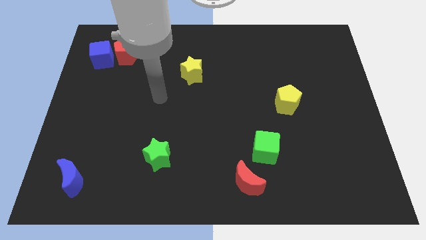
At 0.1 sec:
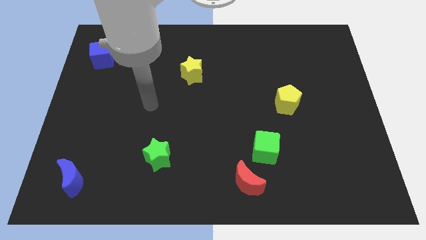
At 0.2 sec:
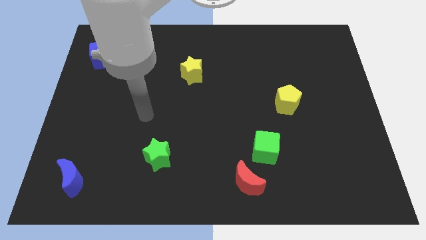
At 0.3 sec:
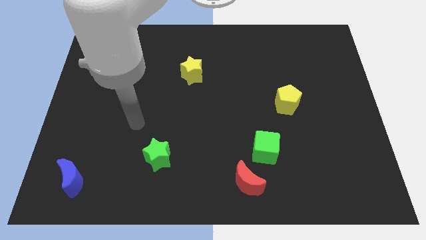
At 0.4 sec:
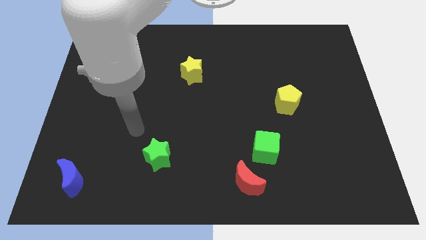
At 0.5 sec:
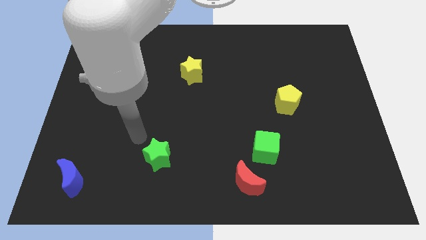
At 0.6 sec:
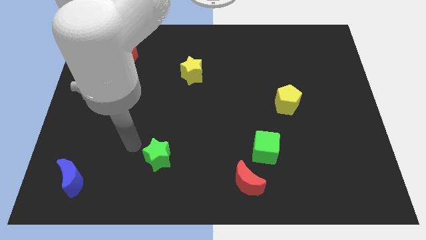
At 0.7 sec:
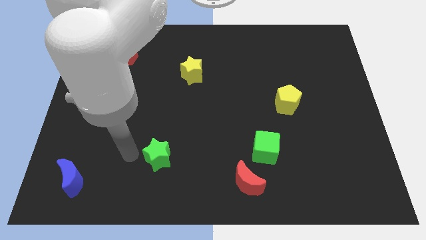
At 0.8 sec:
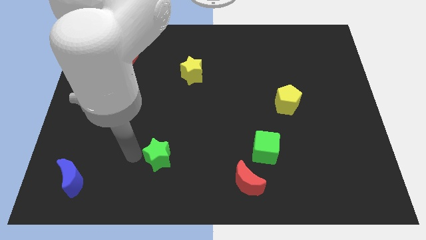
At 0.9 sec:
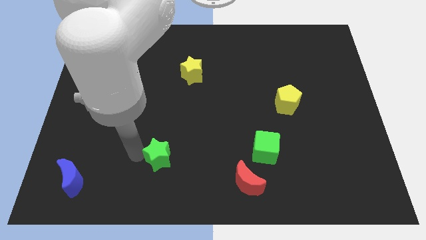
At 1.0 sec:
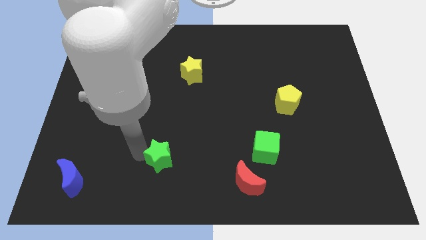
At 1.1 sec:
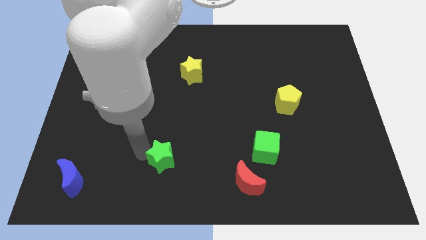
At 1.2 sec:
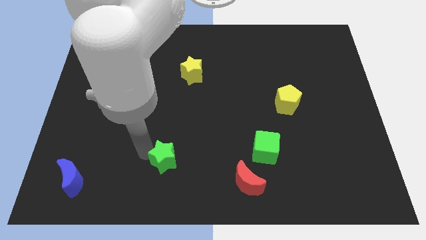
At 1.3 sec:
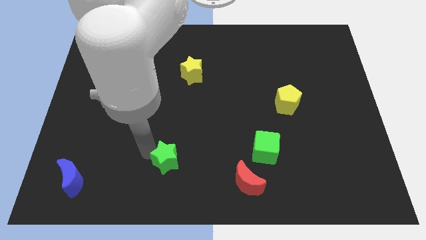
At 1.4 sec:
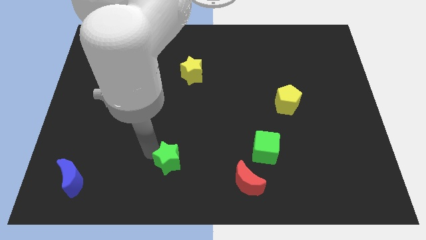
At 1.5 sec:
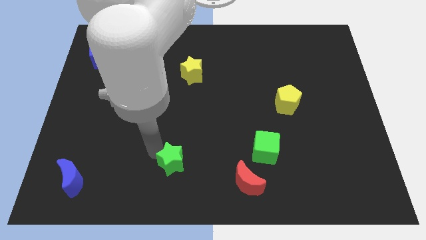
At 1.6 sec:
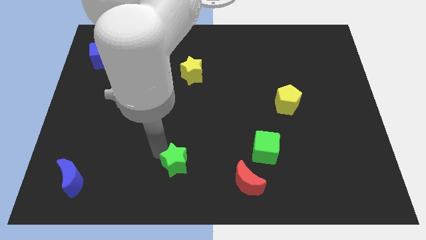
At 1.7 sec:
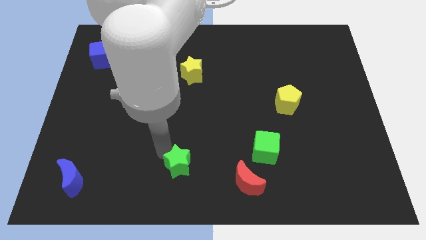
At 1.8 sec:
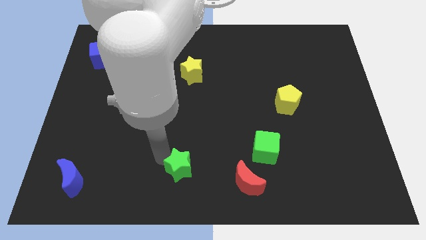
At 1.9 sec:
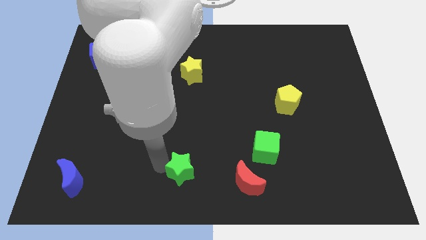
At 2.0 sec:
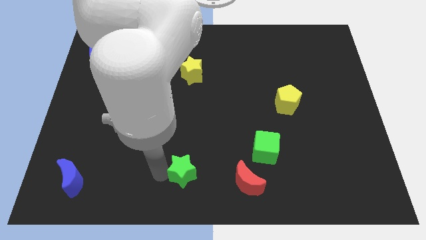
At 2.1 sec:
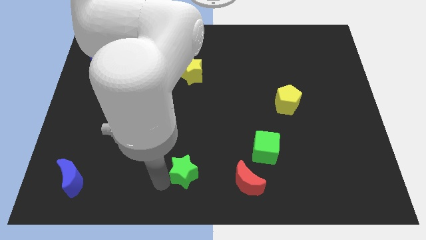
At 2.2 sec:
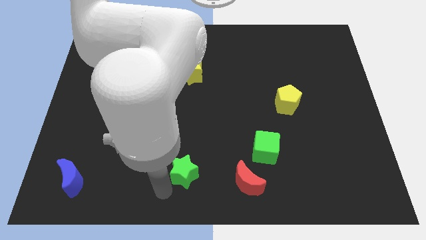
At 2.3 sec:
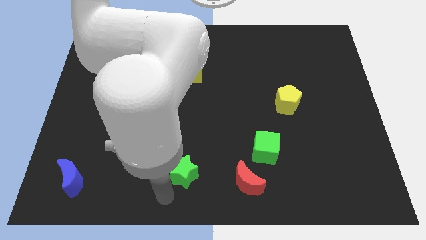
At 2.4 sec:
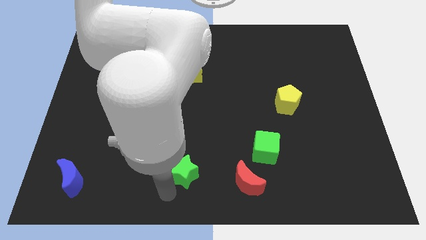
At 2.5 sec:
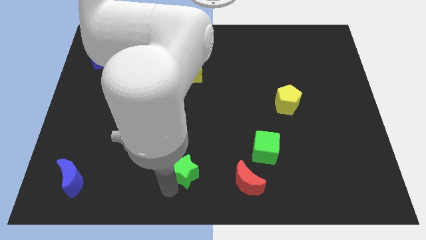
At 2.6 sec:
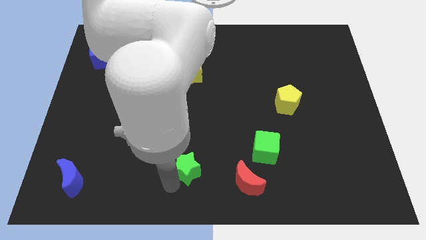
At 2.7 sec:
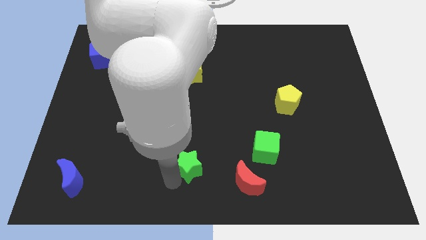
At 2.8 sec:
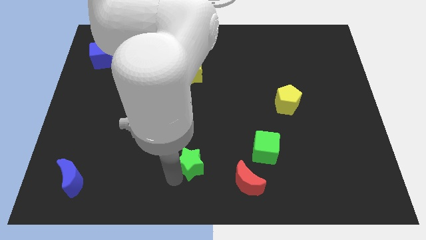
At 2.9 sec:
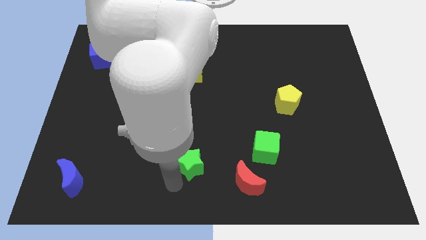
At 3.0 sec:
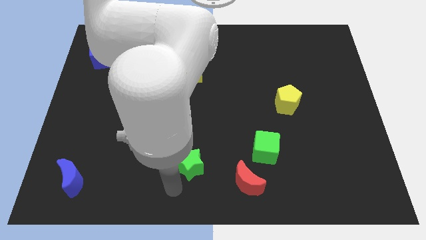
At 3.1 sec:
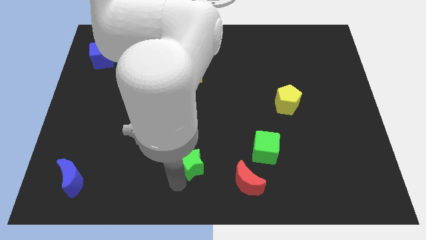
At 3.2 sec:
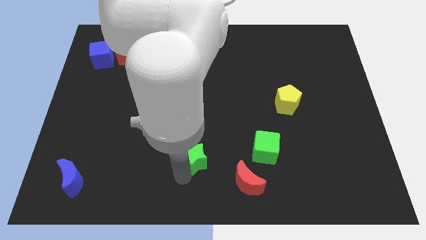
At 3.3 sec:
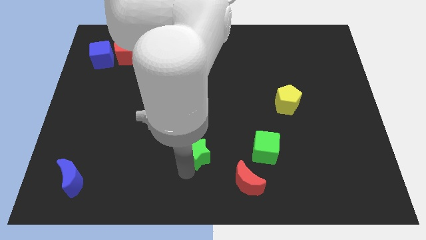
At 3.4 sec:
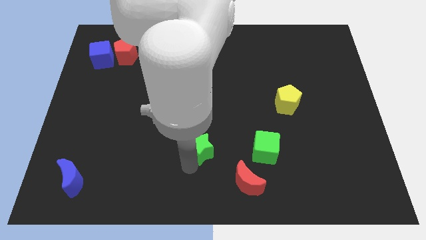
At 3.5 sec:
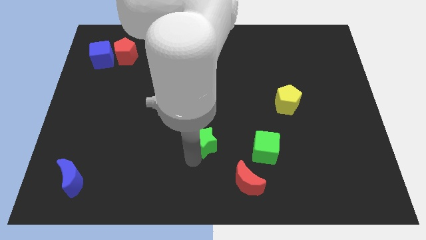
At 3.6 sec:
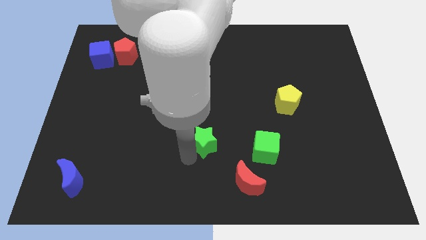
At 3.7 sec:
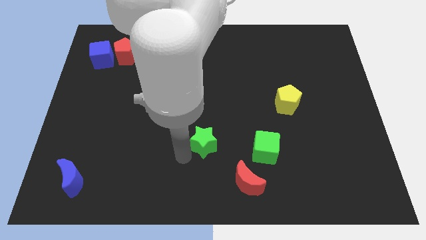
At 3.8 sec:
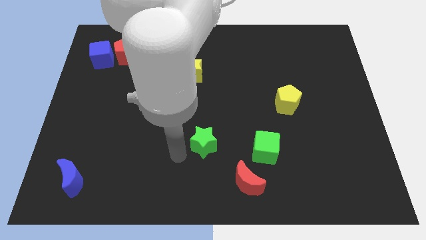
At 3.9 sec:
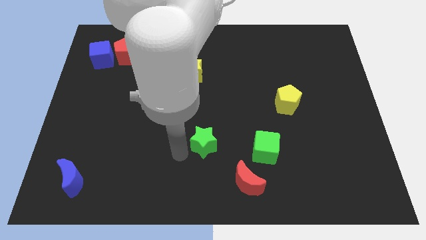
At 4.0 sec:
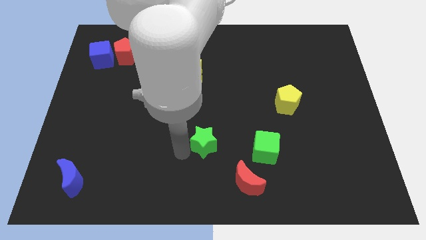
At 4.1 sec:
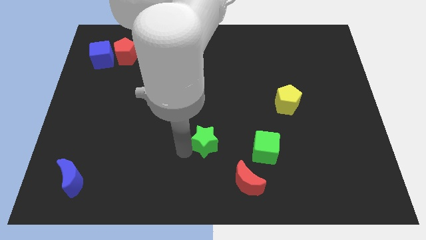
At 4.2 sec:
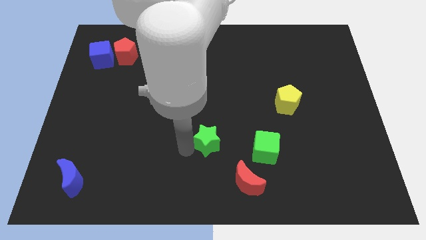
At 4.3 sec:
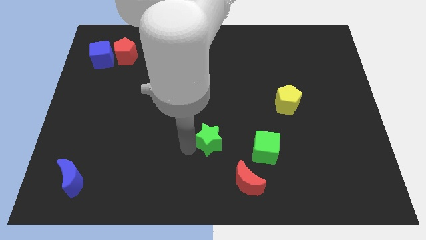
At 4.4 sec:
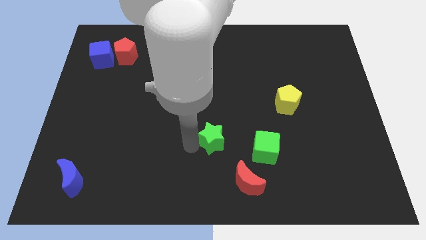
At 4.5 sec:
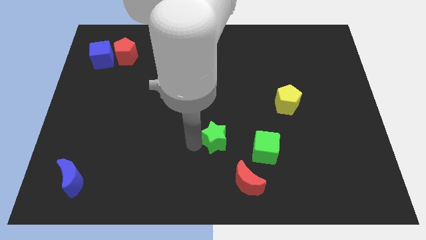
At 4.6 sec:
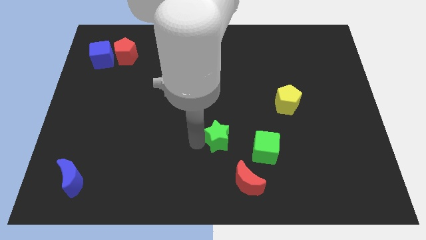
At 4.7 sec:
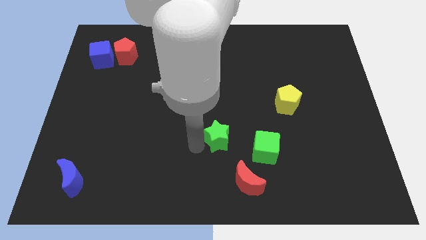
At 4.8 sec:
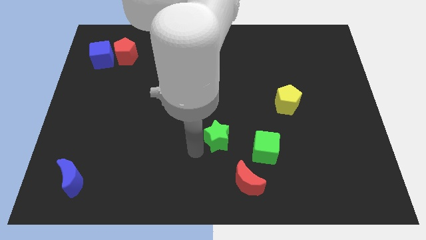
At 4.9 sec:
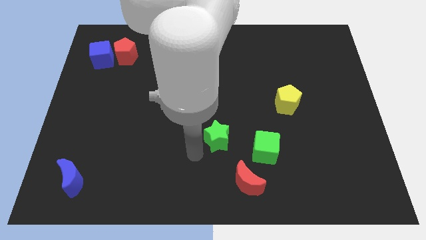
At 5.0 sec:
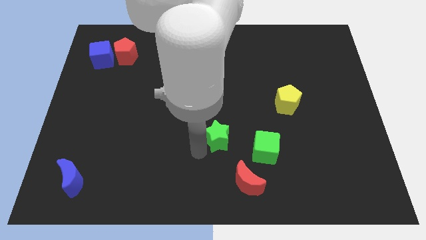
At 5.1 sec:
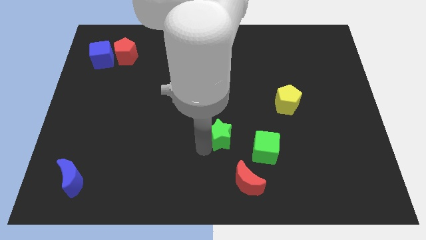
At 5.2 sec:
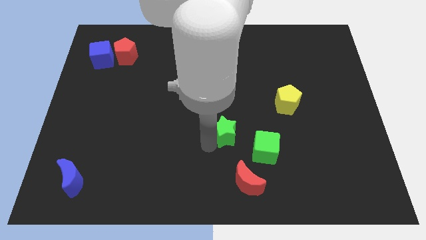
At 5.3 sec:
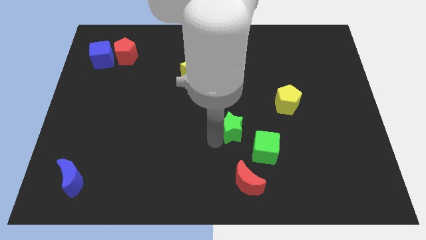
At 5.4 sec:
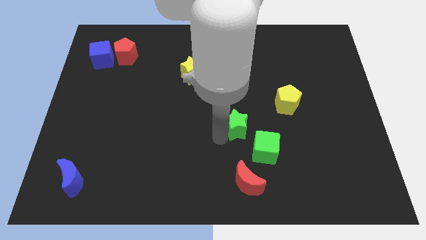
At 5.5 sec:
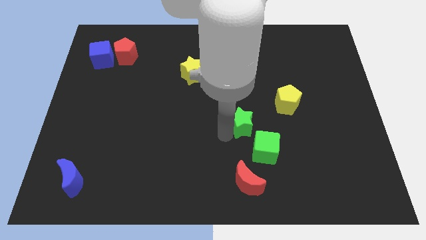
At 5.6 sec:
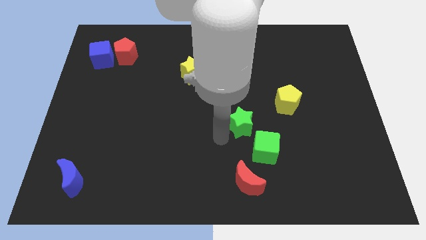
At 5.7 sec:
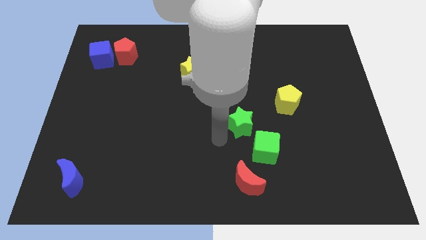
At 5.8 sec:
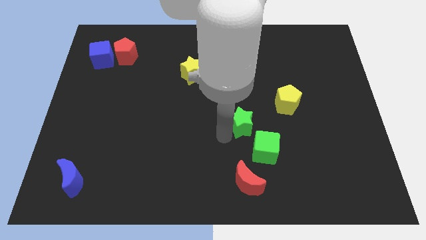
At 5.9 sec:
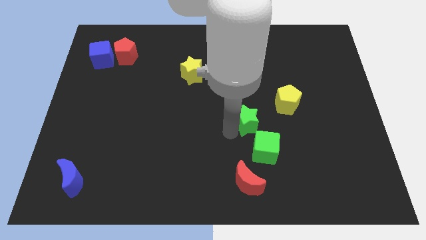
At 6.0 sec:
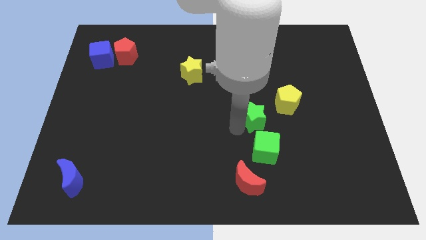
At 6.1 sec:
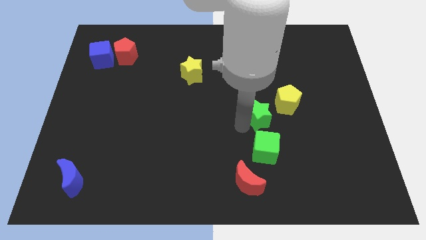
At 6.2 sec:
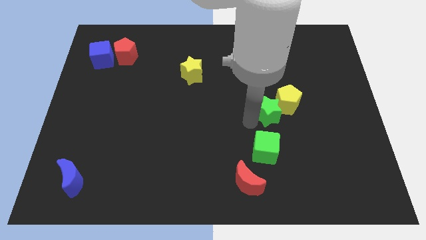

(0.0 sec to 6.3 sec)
push the green star close to the yellow pentagon

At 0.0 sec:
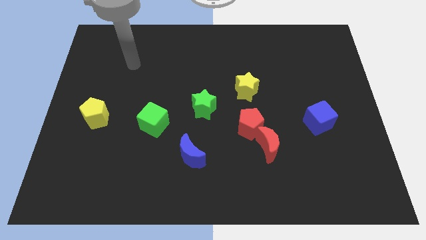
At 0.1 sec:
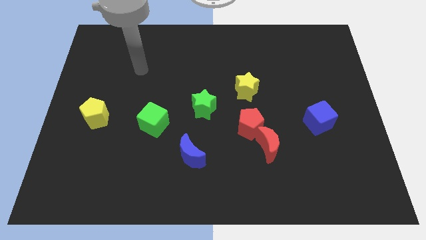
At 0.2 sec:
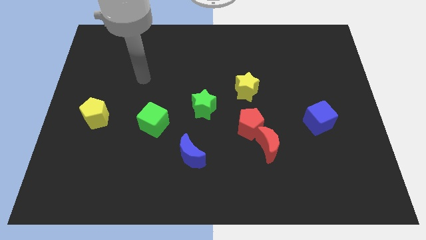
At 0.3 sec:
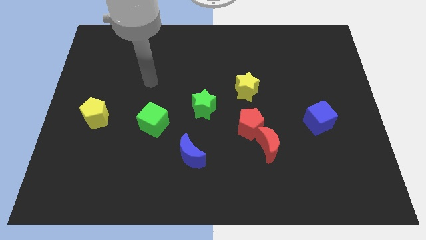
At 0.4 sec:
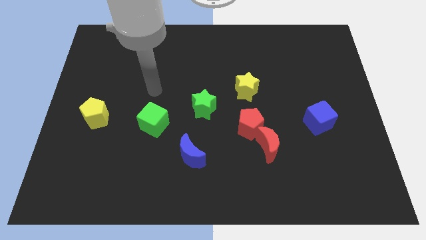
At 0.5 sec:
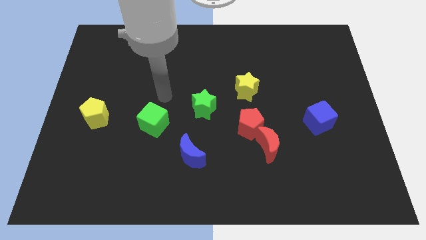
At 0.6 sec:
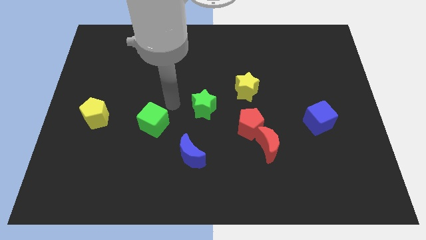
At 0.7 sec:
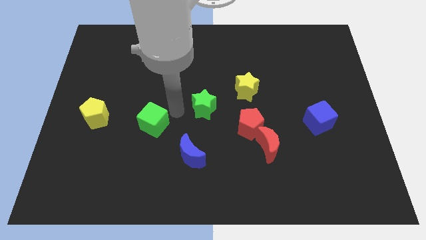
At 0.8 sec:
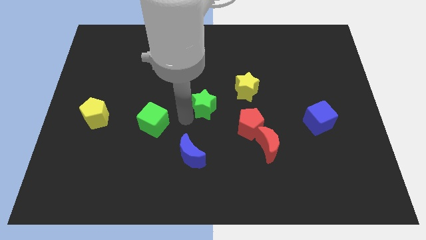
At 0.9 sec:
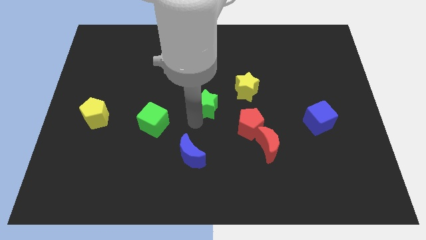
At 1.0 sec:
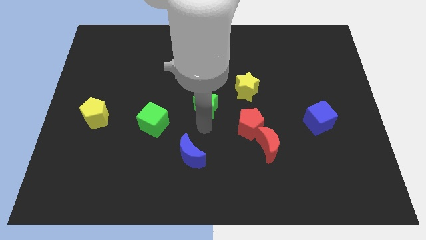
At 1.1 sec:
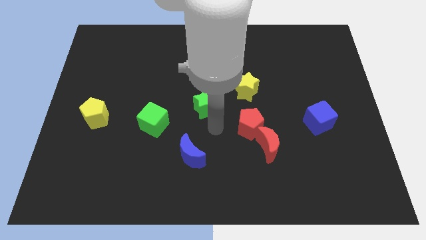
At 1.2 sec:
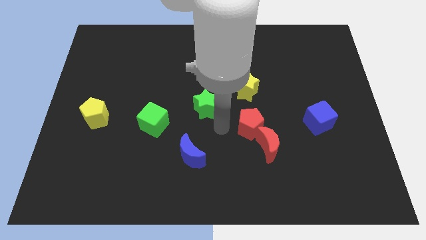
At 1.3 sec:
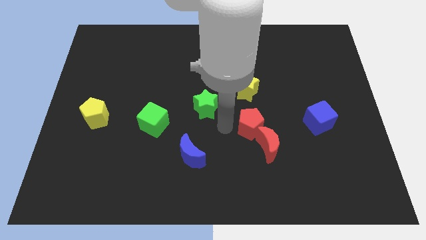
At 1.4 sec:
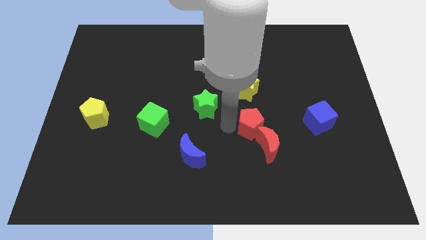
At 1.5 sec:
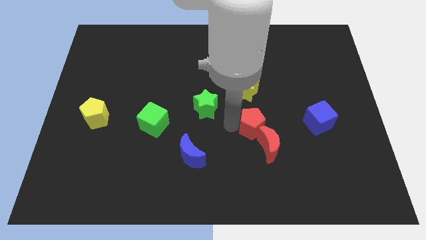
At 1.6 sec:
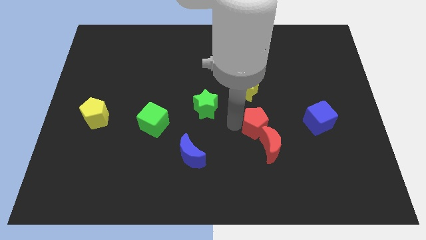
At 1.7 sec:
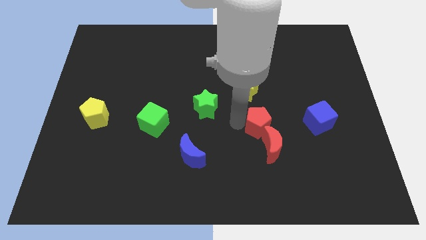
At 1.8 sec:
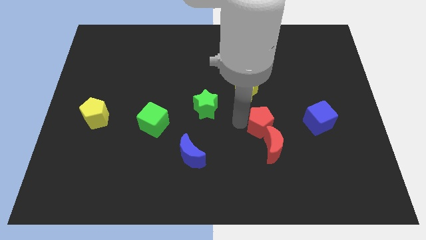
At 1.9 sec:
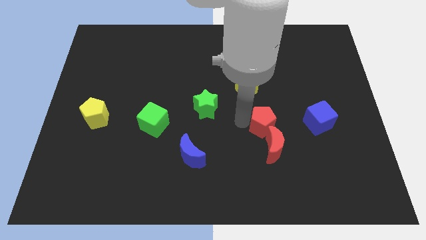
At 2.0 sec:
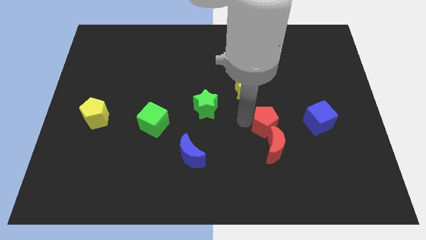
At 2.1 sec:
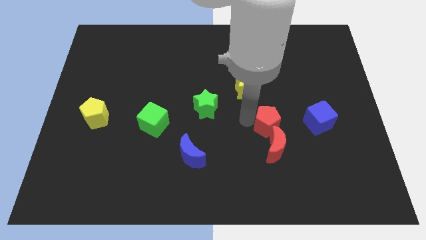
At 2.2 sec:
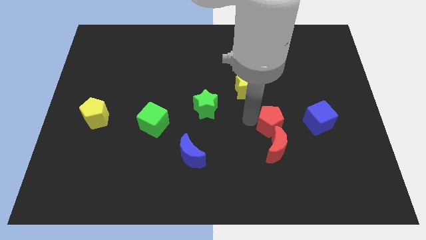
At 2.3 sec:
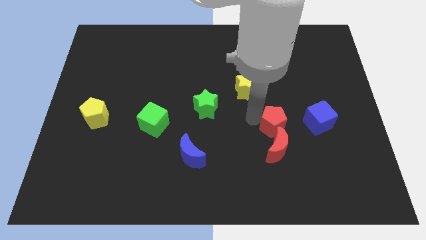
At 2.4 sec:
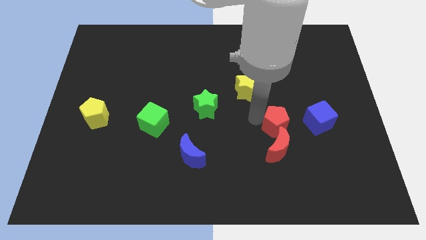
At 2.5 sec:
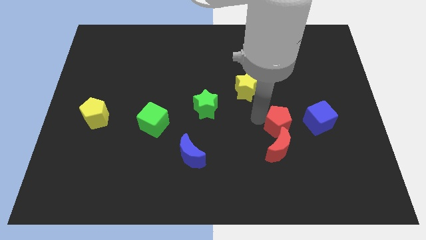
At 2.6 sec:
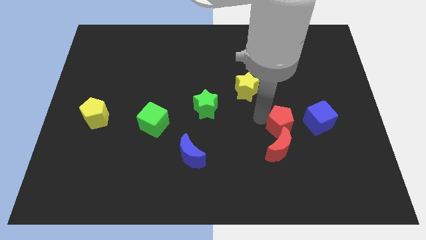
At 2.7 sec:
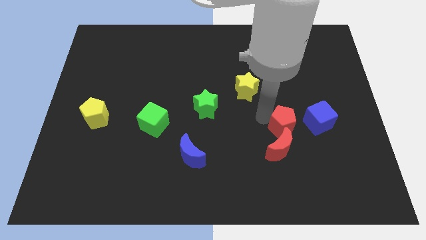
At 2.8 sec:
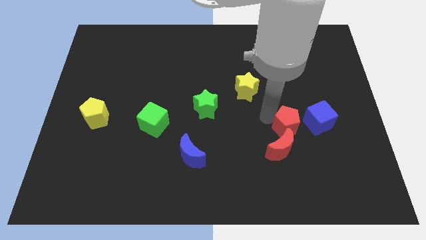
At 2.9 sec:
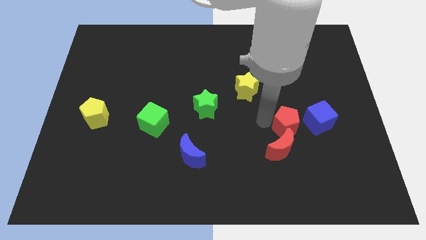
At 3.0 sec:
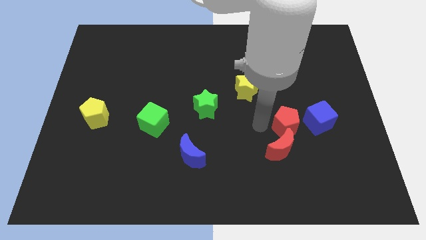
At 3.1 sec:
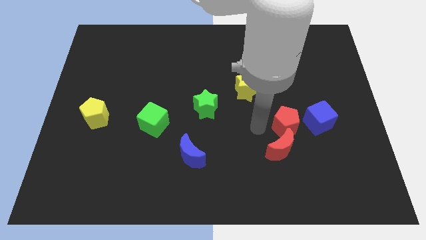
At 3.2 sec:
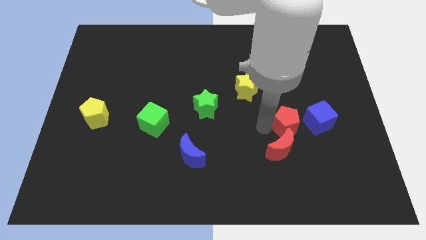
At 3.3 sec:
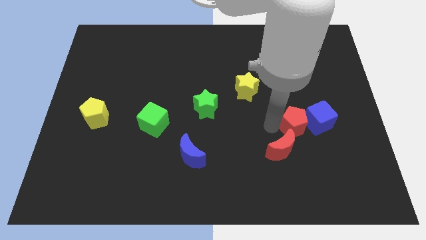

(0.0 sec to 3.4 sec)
slide the red pentagon close to the blue cube
